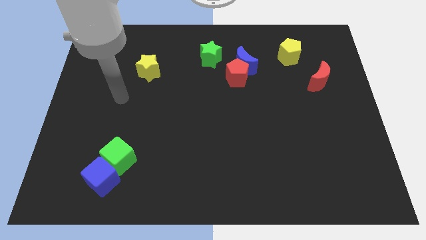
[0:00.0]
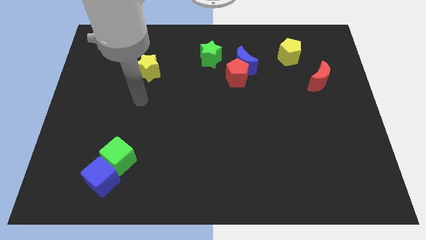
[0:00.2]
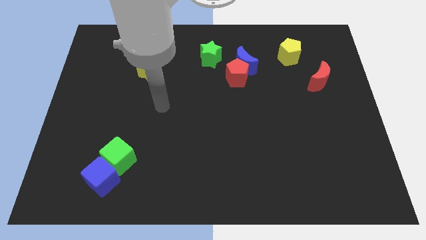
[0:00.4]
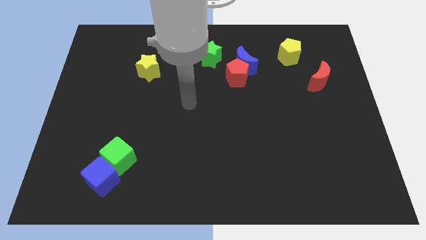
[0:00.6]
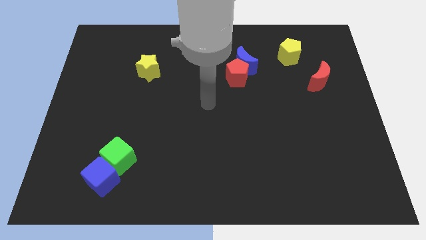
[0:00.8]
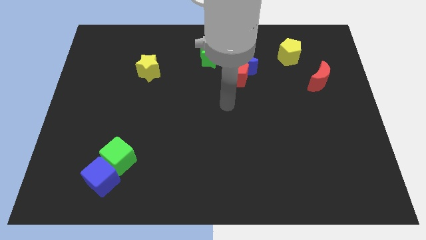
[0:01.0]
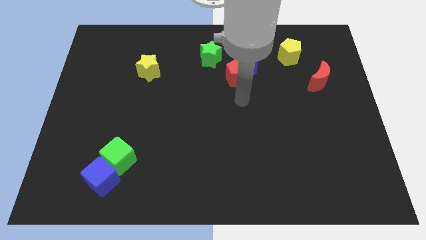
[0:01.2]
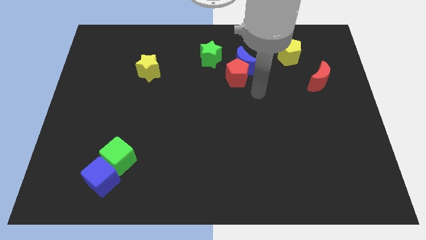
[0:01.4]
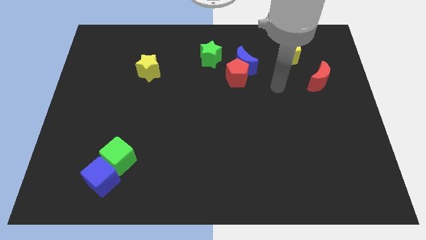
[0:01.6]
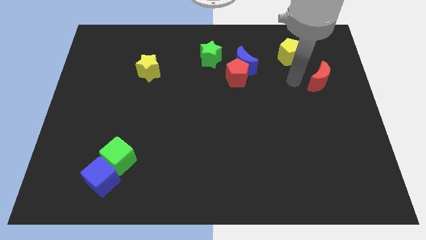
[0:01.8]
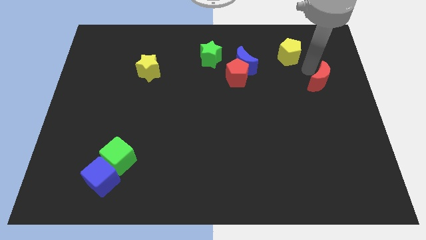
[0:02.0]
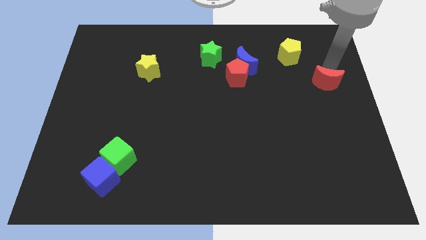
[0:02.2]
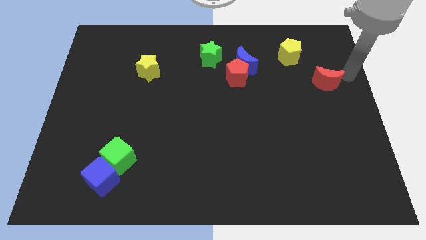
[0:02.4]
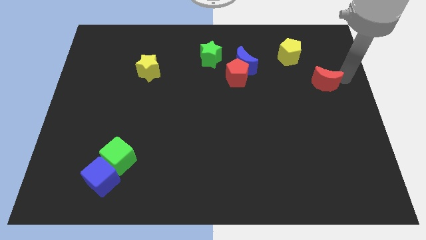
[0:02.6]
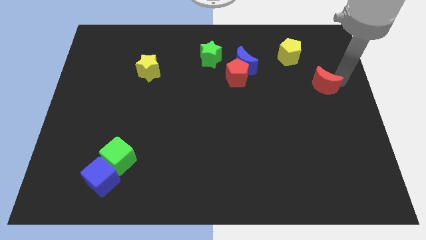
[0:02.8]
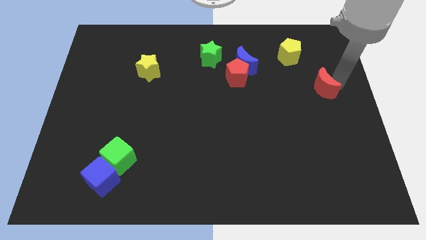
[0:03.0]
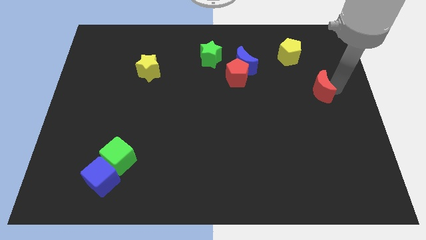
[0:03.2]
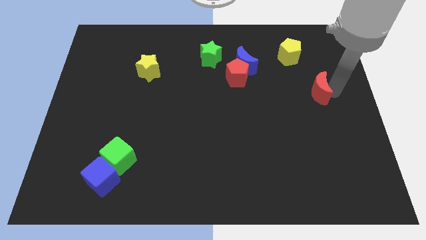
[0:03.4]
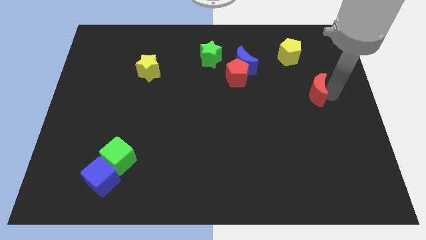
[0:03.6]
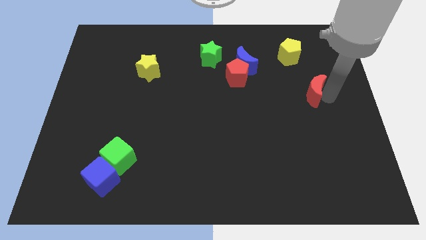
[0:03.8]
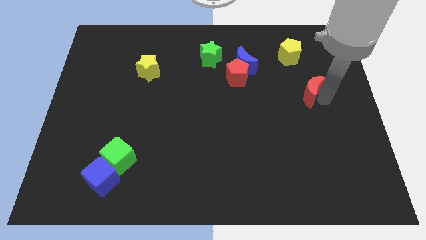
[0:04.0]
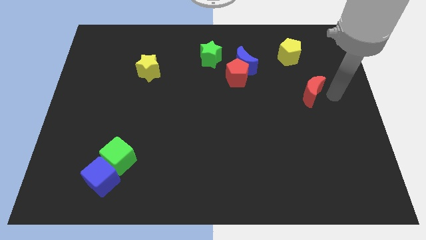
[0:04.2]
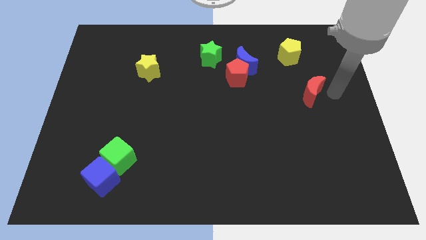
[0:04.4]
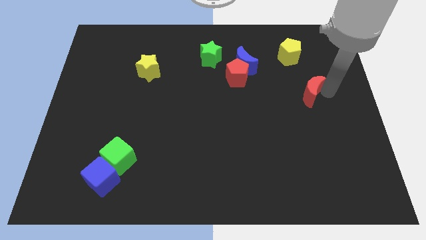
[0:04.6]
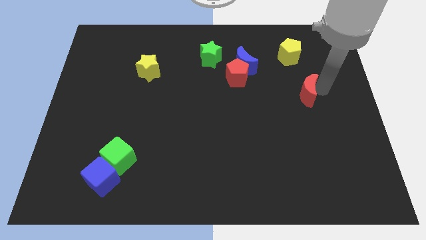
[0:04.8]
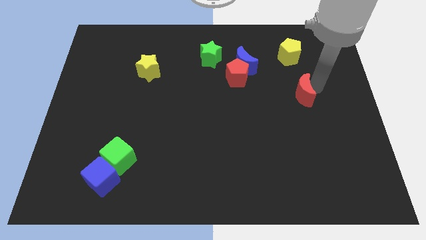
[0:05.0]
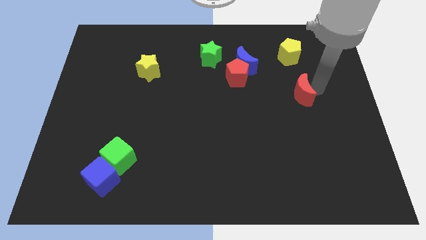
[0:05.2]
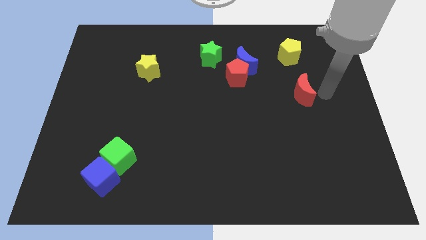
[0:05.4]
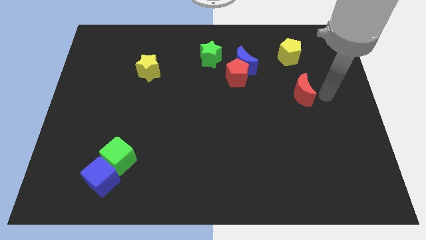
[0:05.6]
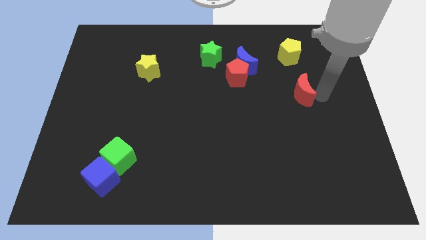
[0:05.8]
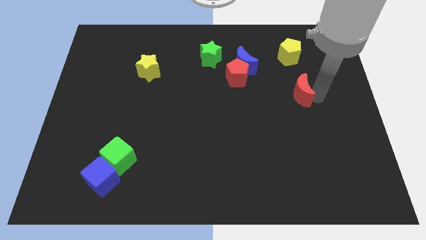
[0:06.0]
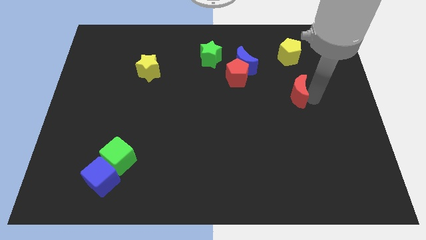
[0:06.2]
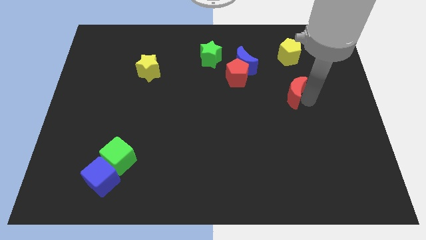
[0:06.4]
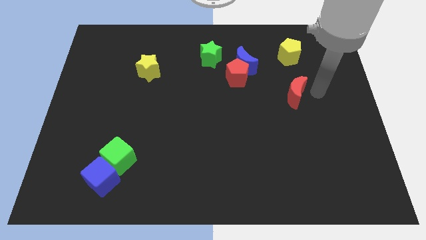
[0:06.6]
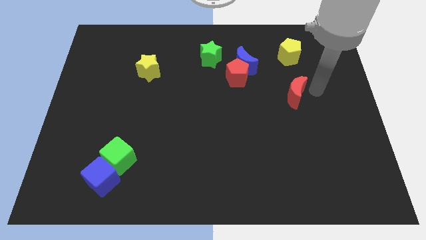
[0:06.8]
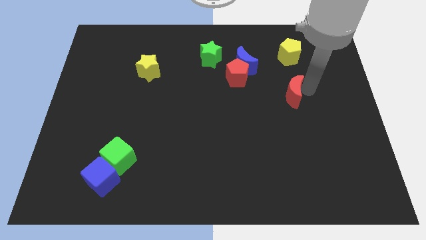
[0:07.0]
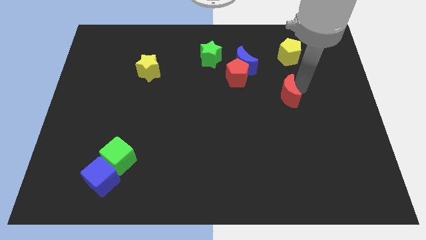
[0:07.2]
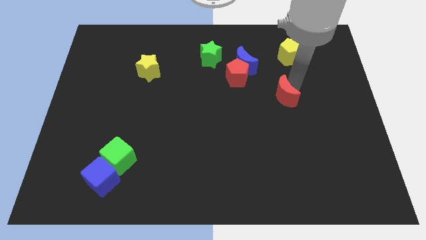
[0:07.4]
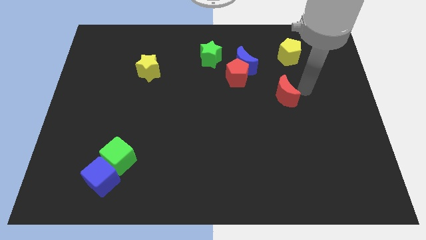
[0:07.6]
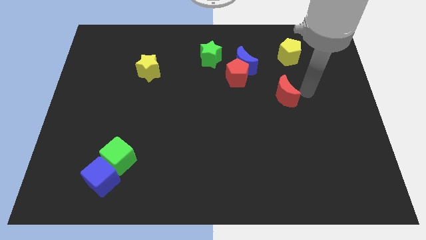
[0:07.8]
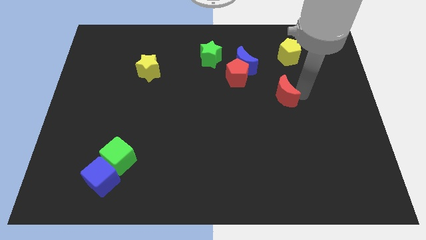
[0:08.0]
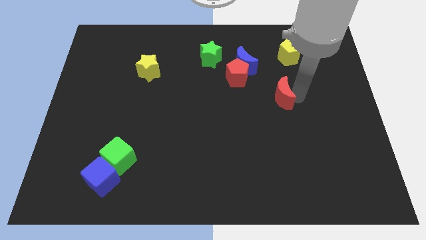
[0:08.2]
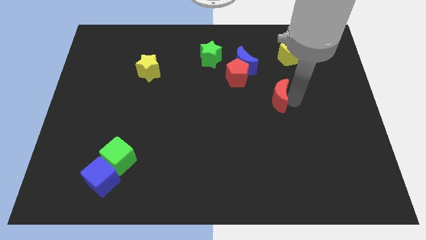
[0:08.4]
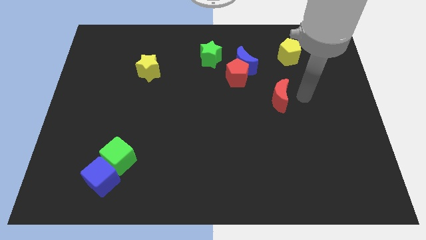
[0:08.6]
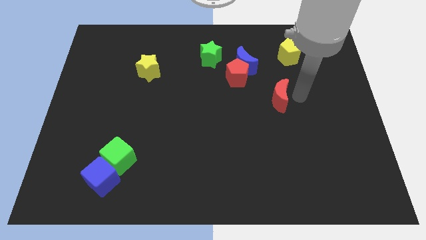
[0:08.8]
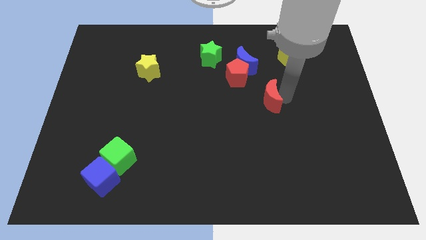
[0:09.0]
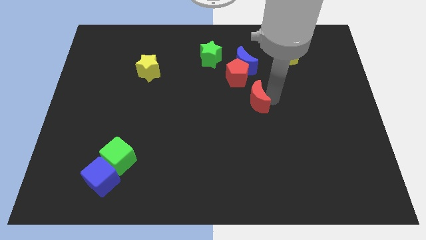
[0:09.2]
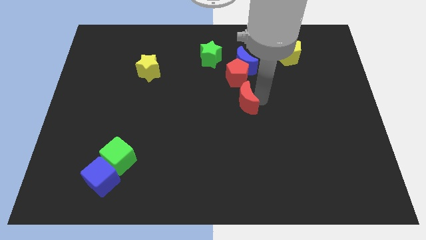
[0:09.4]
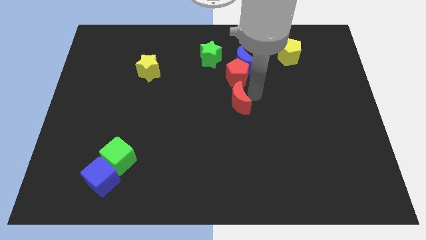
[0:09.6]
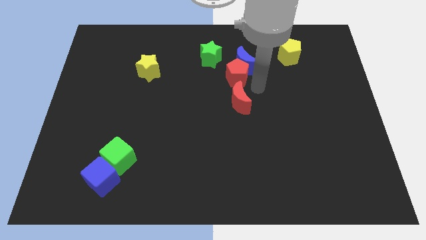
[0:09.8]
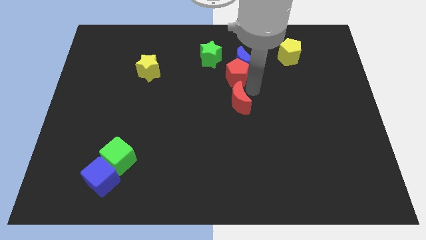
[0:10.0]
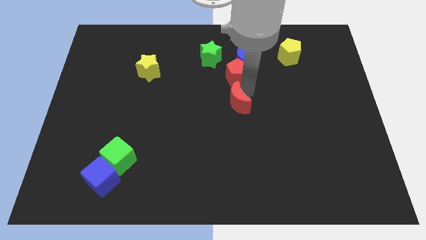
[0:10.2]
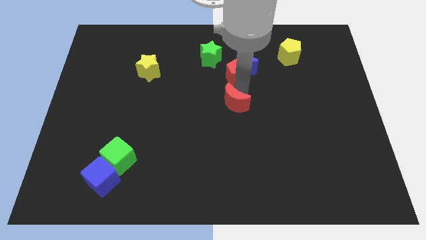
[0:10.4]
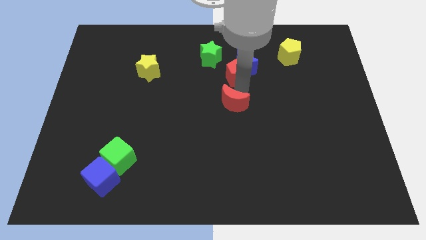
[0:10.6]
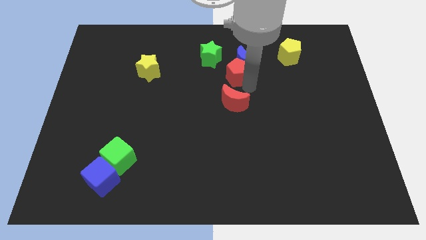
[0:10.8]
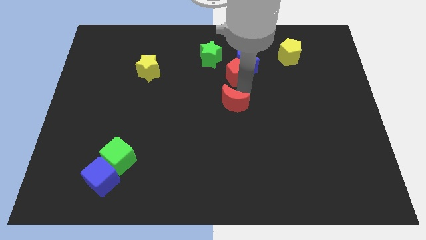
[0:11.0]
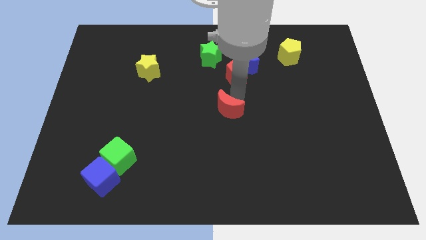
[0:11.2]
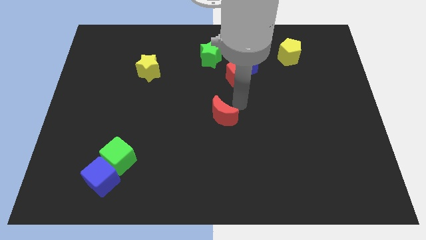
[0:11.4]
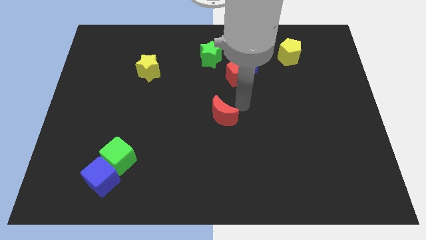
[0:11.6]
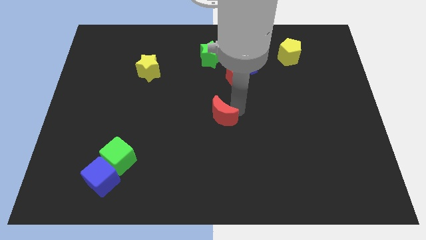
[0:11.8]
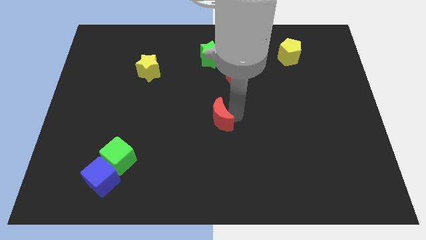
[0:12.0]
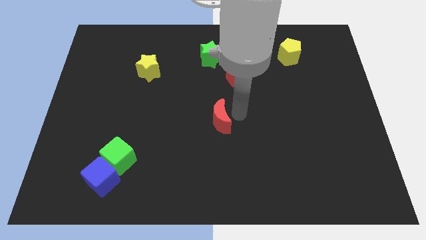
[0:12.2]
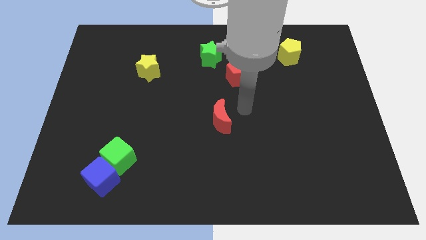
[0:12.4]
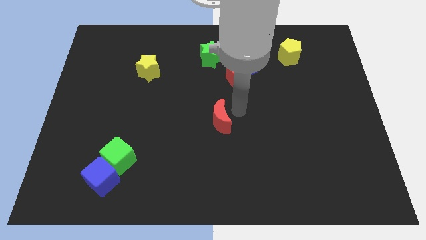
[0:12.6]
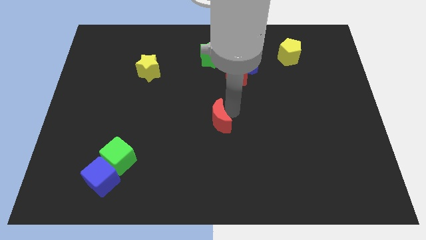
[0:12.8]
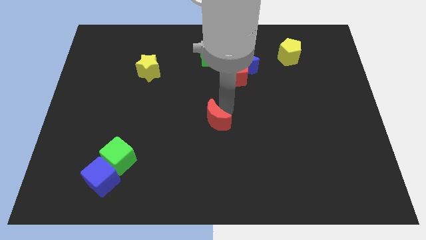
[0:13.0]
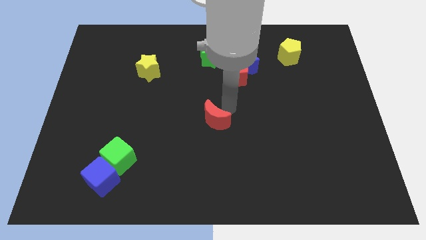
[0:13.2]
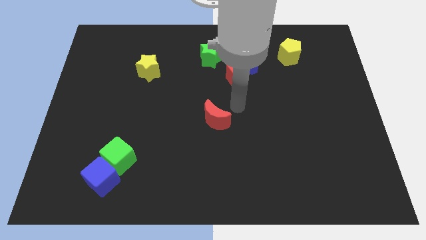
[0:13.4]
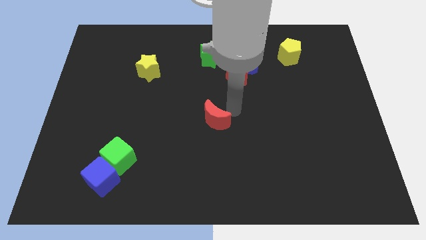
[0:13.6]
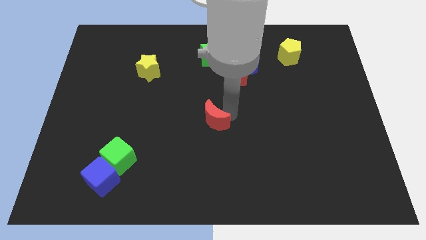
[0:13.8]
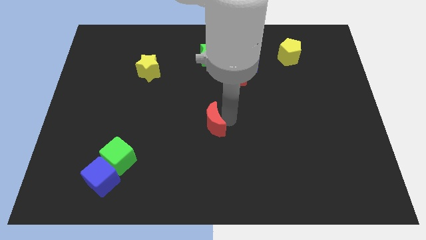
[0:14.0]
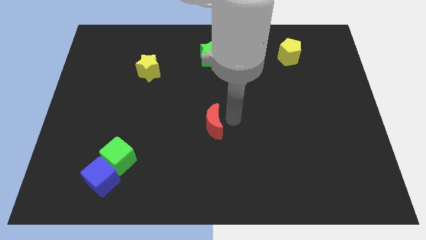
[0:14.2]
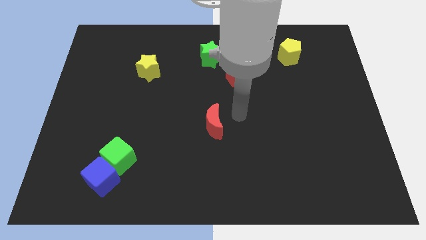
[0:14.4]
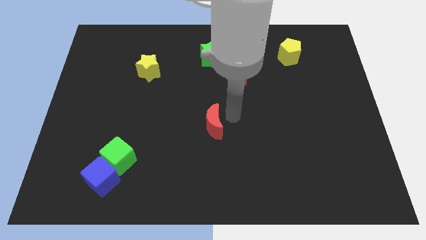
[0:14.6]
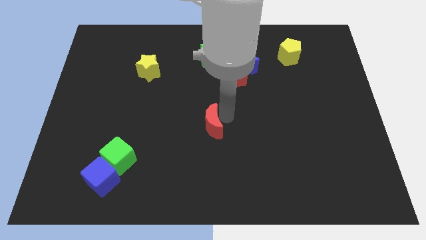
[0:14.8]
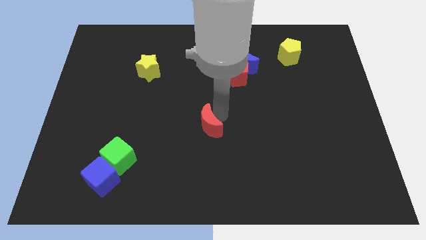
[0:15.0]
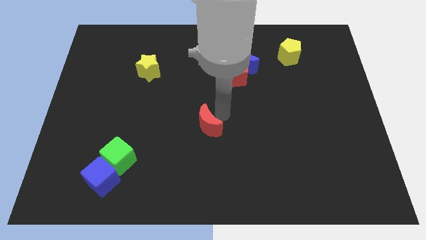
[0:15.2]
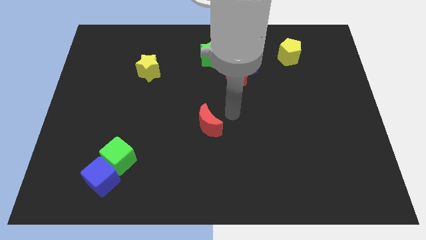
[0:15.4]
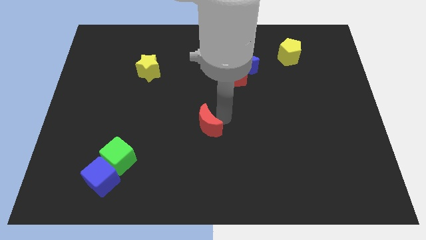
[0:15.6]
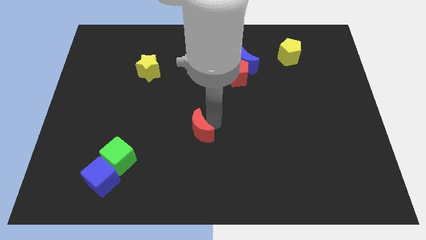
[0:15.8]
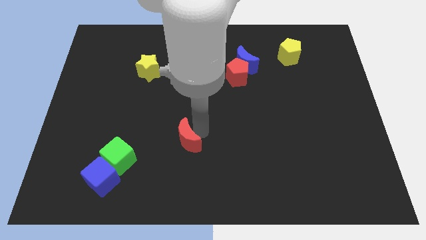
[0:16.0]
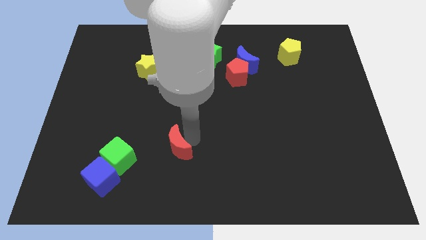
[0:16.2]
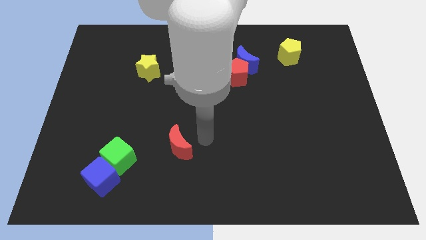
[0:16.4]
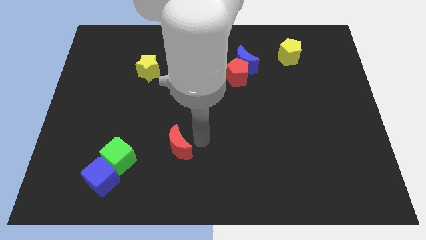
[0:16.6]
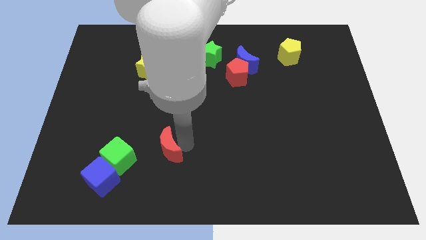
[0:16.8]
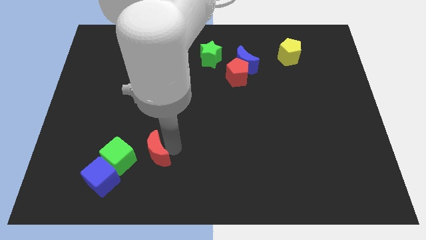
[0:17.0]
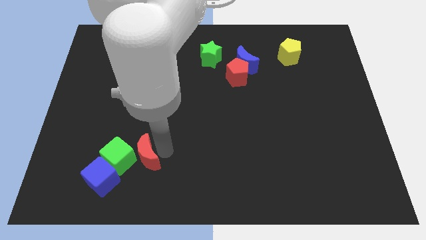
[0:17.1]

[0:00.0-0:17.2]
push the red moon close to the green cube
